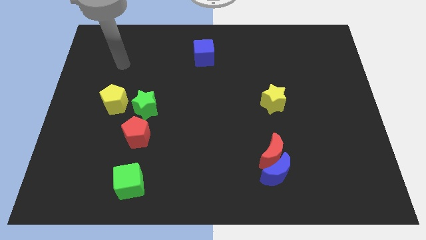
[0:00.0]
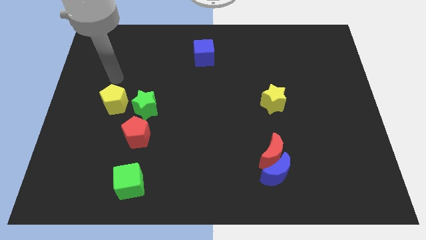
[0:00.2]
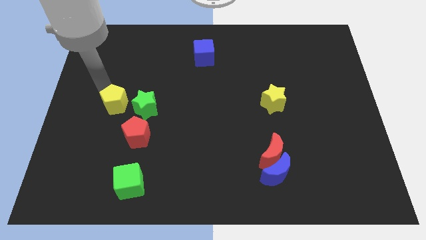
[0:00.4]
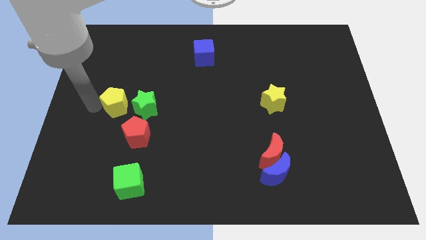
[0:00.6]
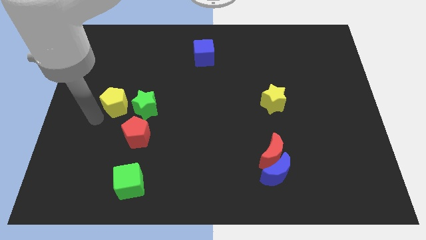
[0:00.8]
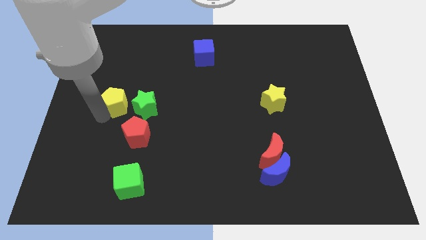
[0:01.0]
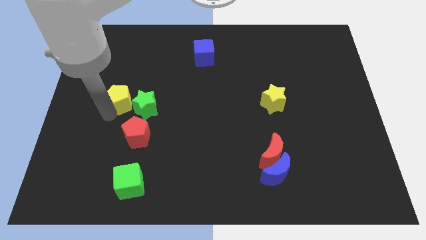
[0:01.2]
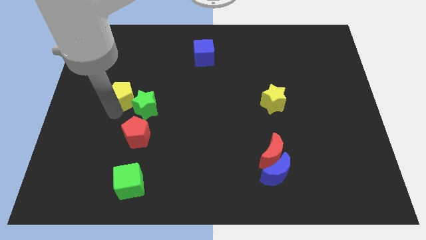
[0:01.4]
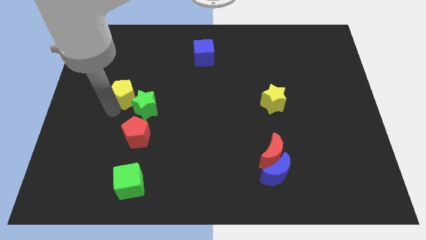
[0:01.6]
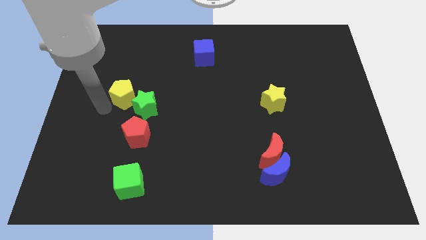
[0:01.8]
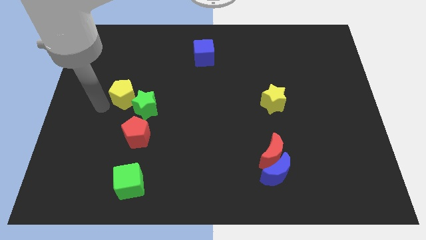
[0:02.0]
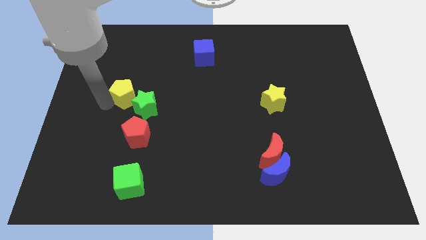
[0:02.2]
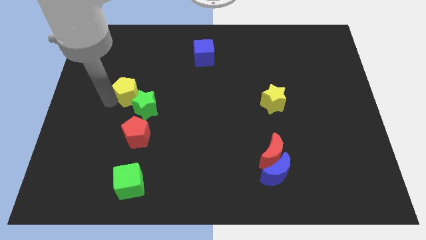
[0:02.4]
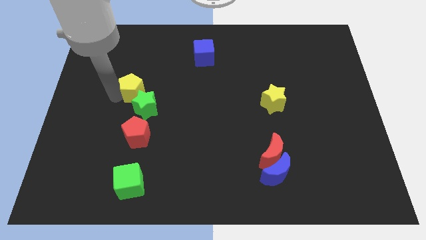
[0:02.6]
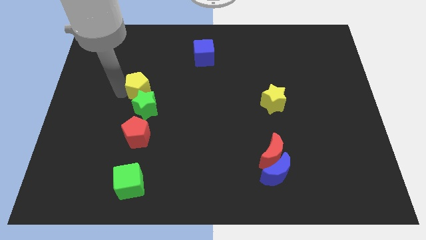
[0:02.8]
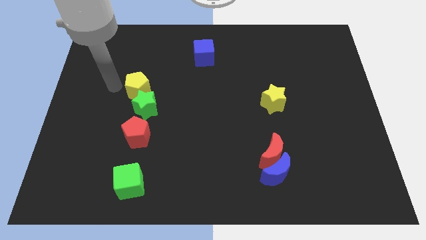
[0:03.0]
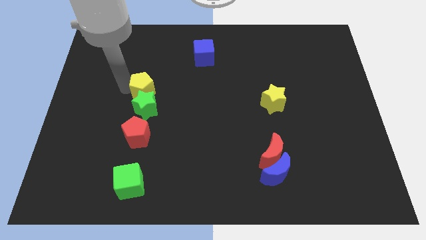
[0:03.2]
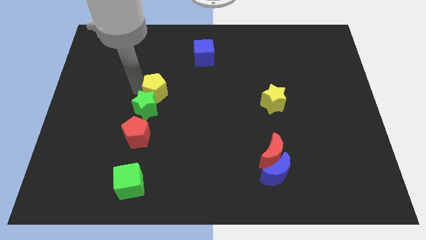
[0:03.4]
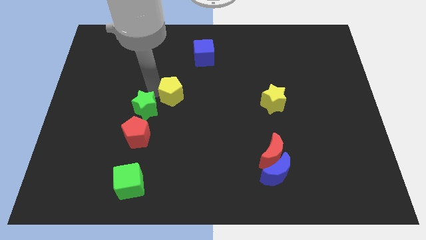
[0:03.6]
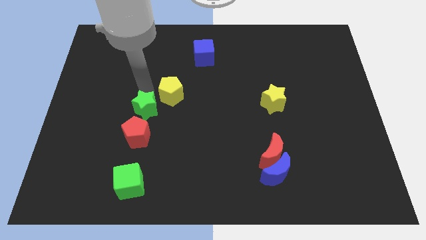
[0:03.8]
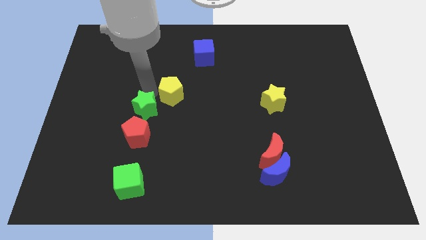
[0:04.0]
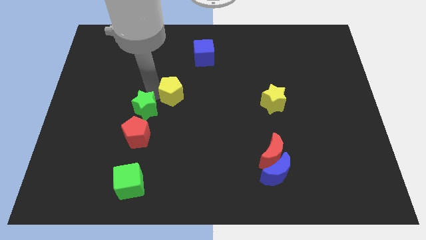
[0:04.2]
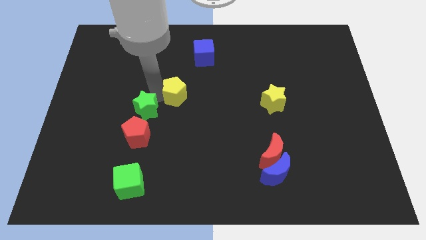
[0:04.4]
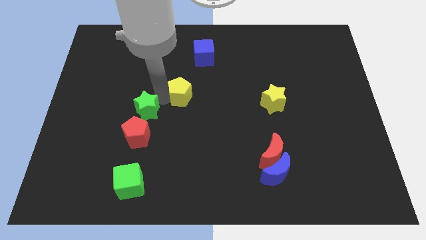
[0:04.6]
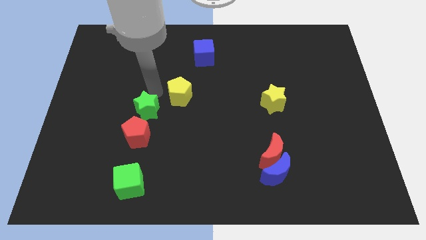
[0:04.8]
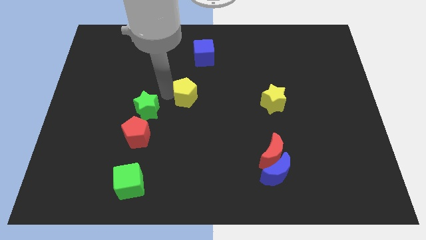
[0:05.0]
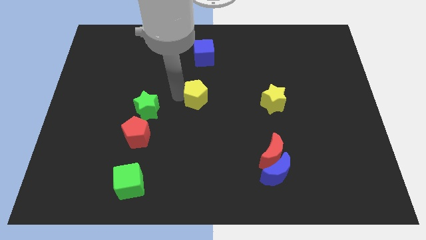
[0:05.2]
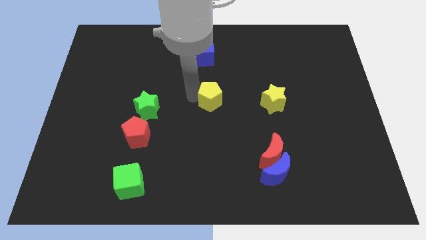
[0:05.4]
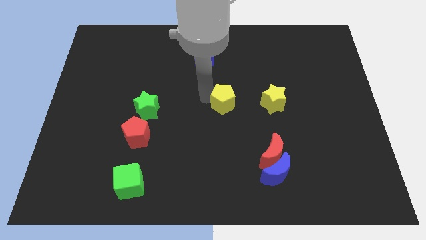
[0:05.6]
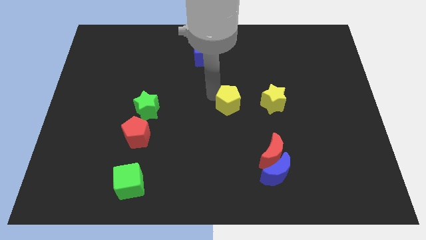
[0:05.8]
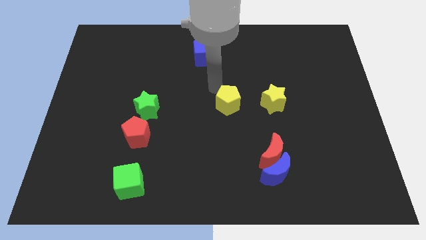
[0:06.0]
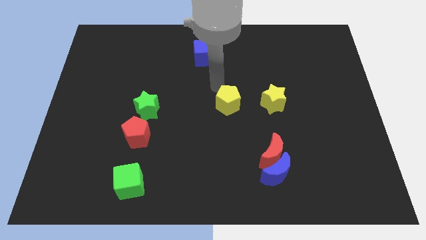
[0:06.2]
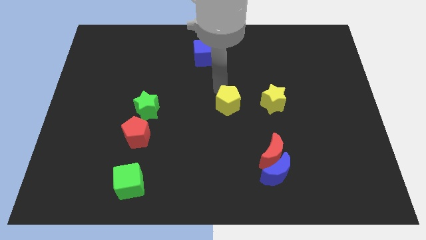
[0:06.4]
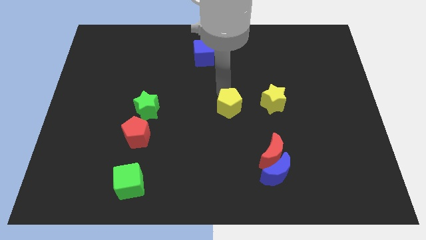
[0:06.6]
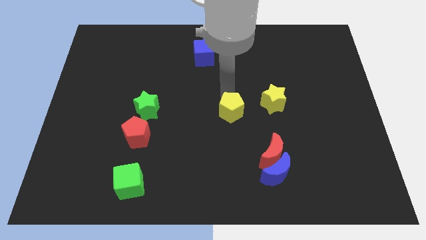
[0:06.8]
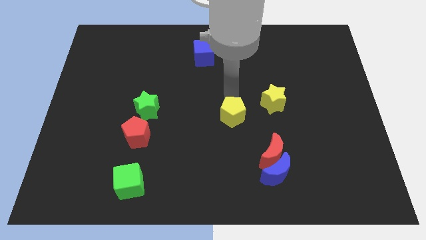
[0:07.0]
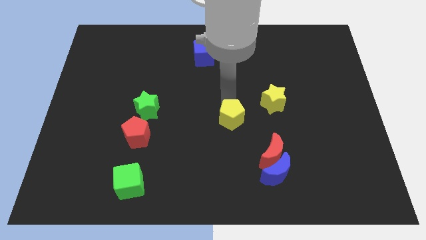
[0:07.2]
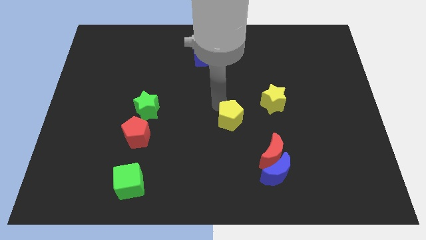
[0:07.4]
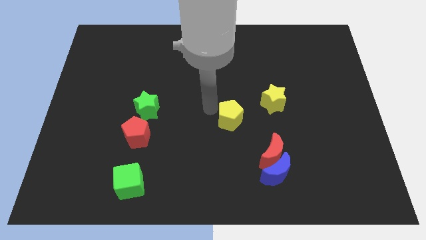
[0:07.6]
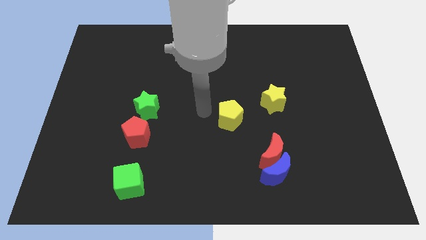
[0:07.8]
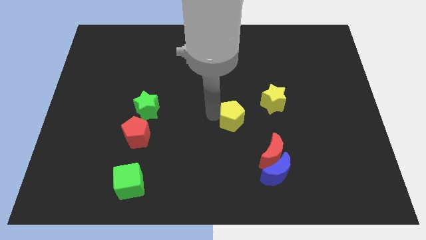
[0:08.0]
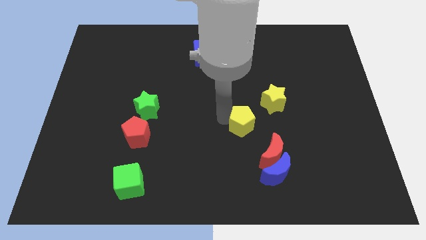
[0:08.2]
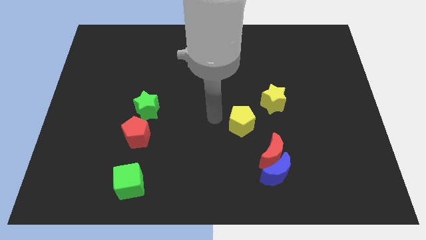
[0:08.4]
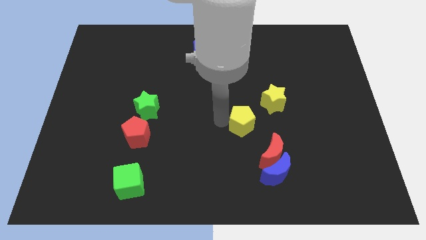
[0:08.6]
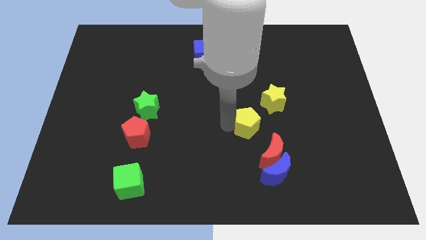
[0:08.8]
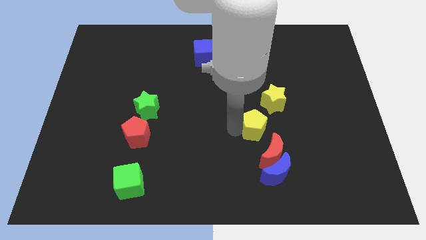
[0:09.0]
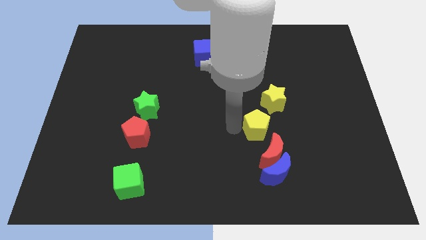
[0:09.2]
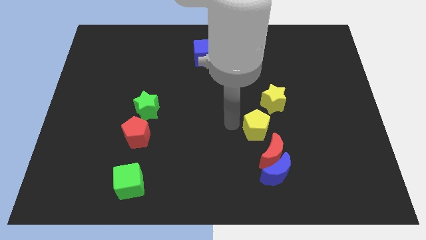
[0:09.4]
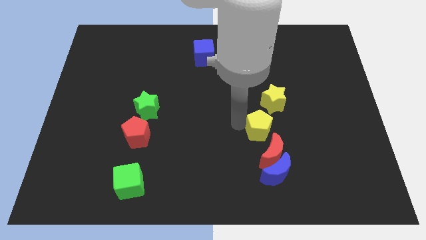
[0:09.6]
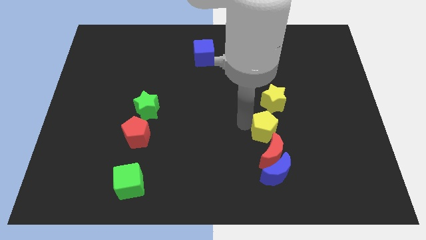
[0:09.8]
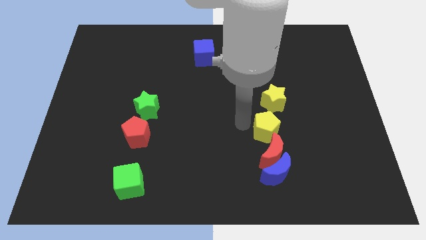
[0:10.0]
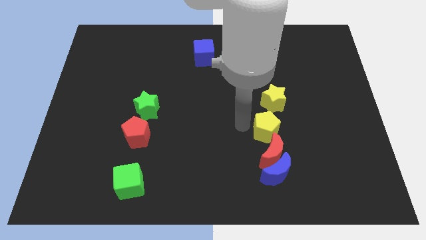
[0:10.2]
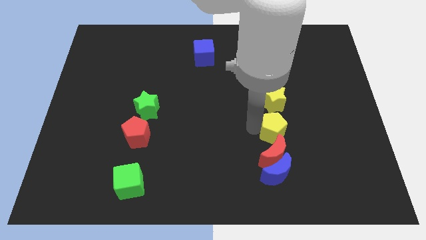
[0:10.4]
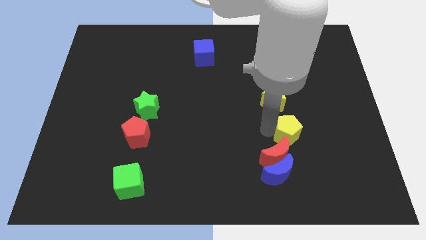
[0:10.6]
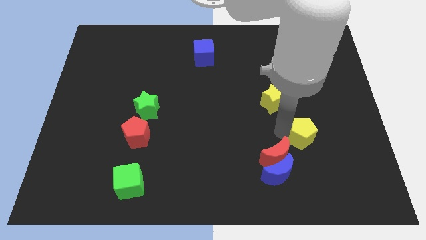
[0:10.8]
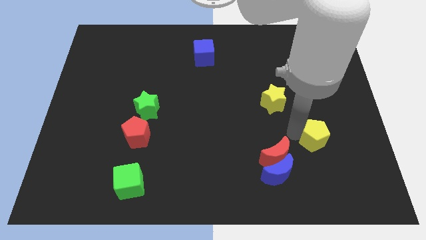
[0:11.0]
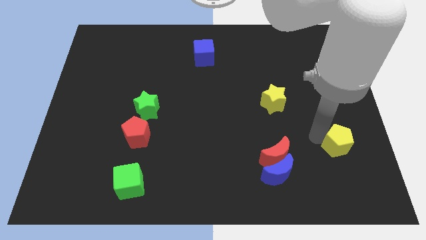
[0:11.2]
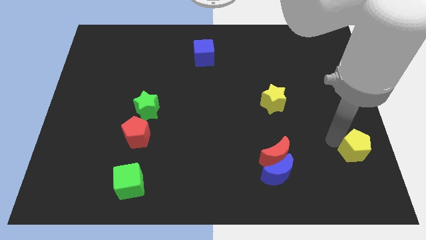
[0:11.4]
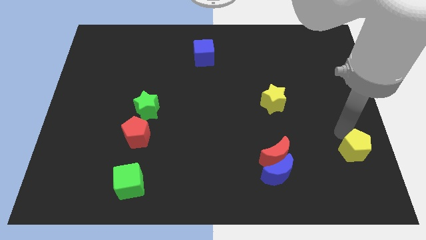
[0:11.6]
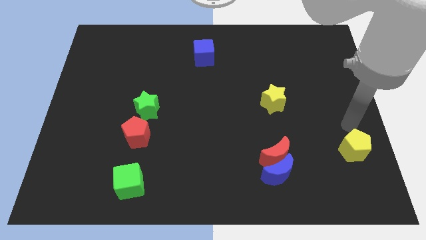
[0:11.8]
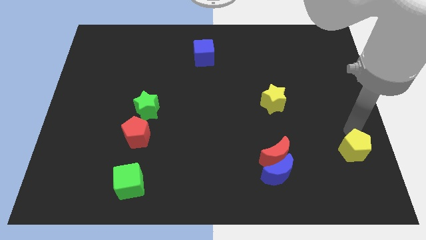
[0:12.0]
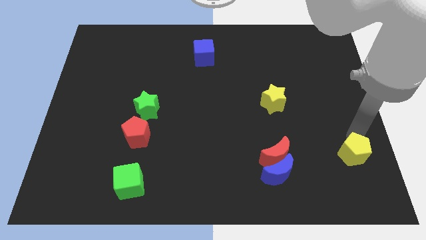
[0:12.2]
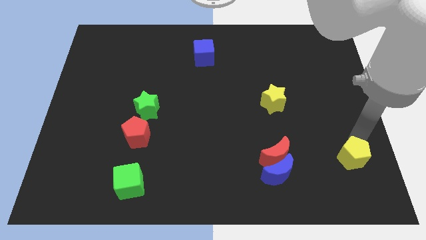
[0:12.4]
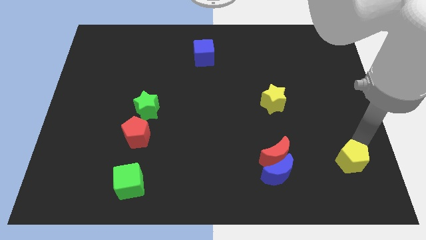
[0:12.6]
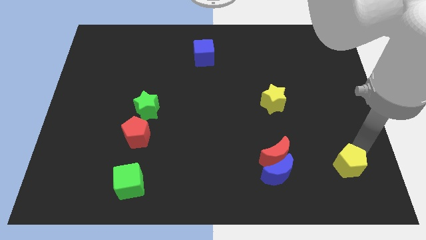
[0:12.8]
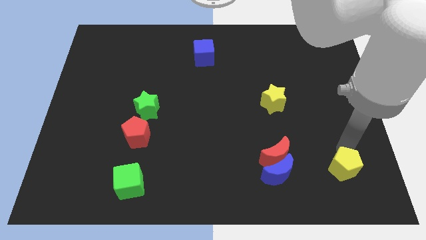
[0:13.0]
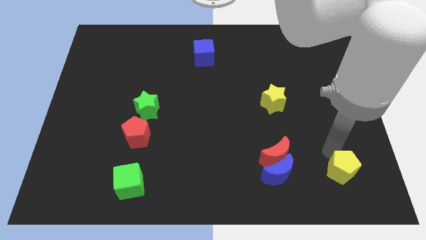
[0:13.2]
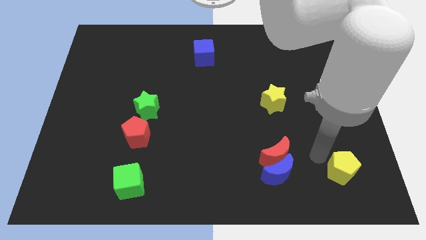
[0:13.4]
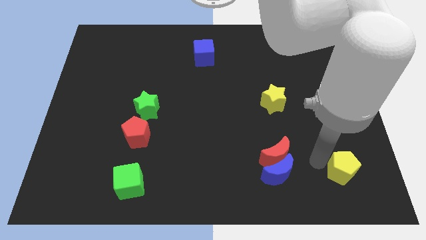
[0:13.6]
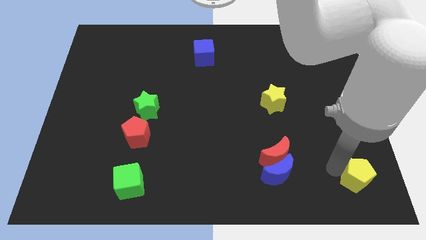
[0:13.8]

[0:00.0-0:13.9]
push the yellow pentagon to the bottom right corner
